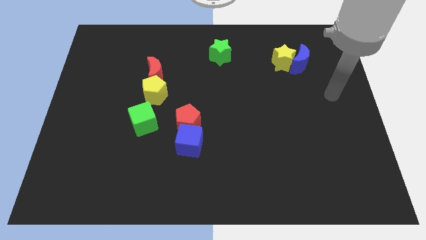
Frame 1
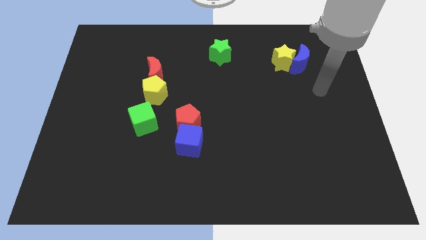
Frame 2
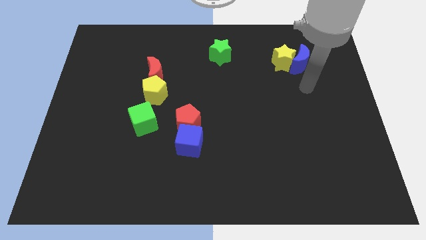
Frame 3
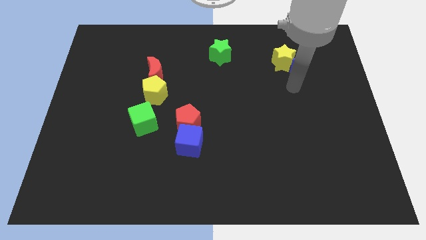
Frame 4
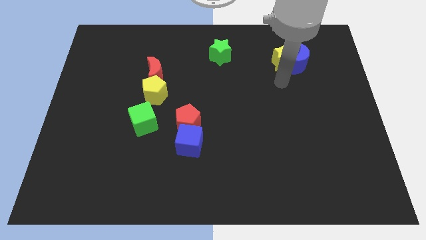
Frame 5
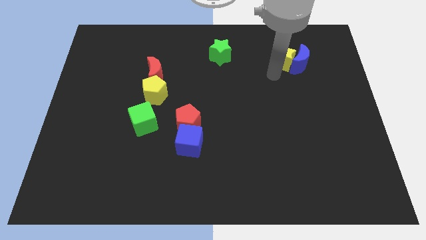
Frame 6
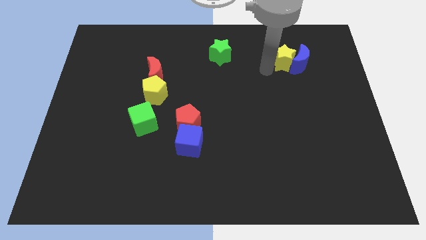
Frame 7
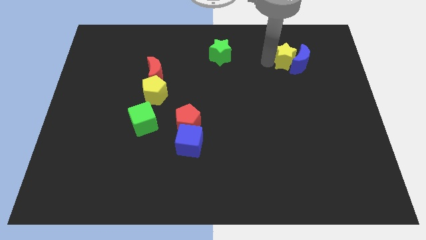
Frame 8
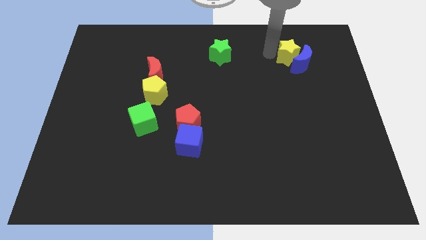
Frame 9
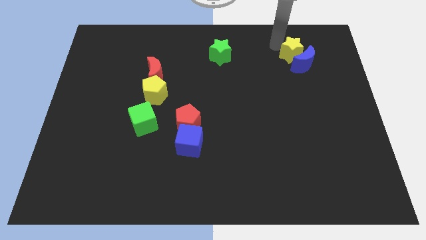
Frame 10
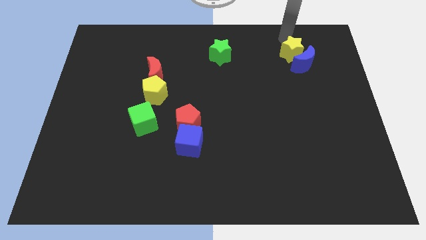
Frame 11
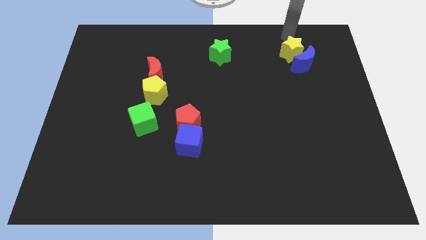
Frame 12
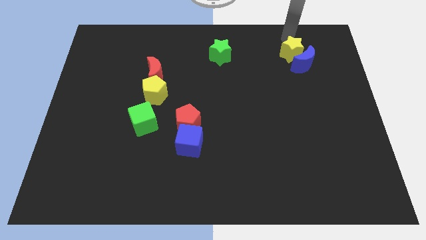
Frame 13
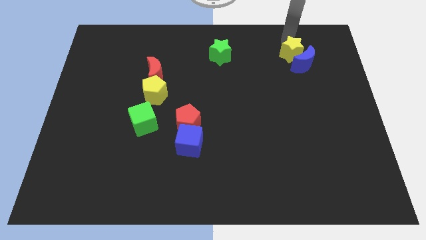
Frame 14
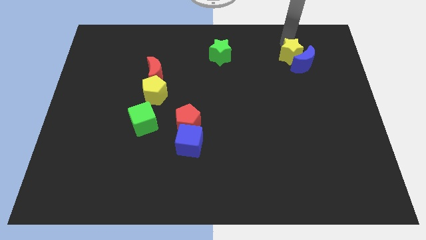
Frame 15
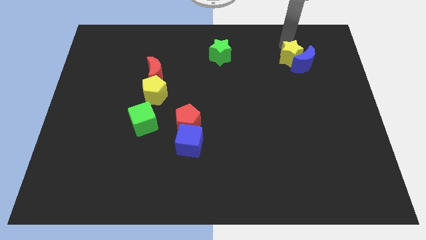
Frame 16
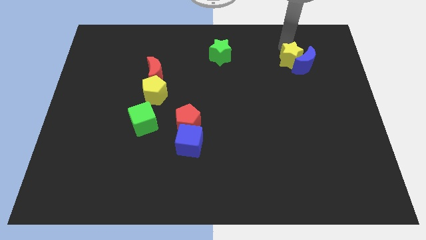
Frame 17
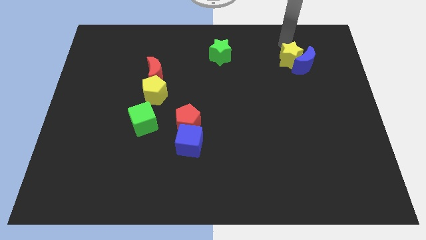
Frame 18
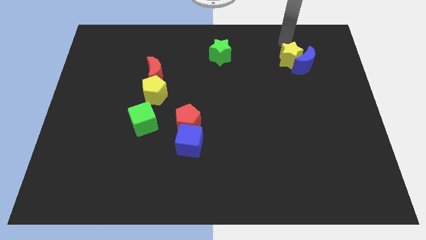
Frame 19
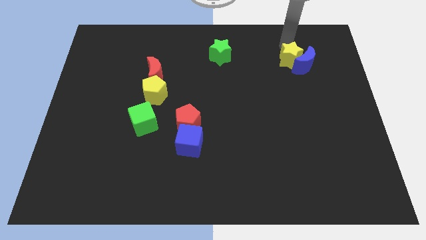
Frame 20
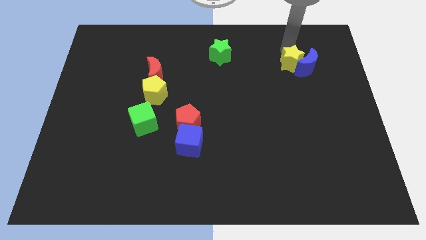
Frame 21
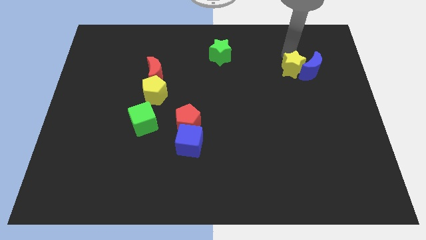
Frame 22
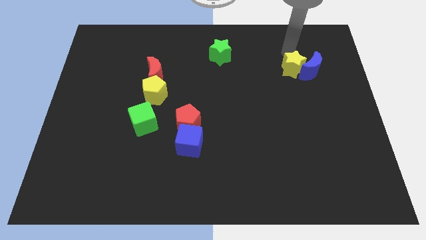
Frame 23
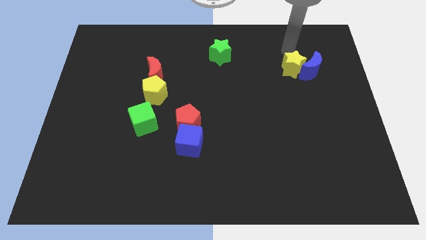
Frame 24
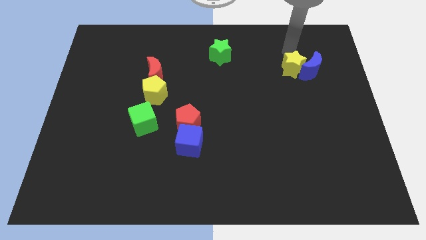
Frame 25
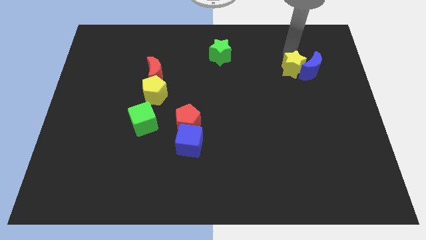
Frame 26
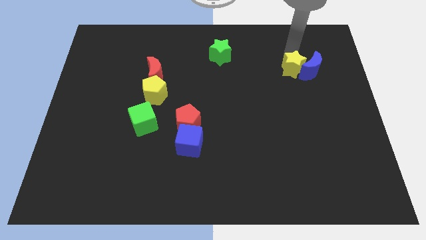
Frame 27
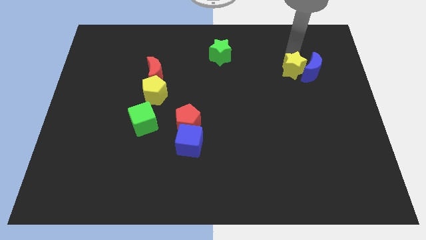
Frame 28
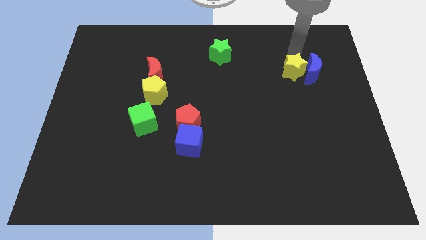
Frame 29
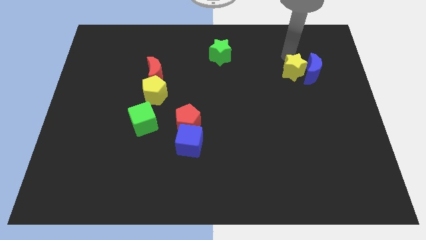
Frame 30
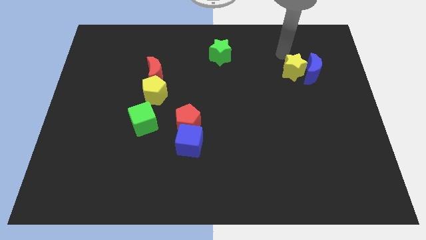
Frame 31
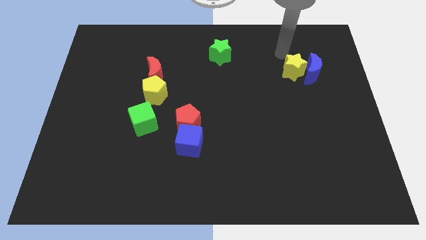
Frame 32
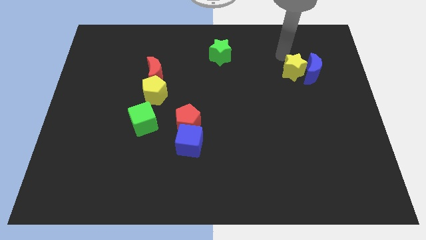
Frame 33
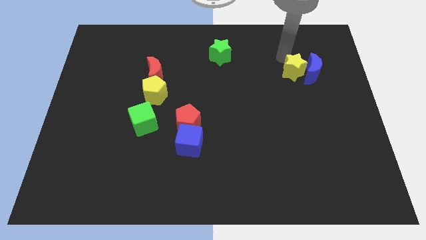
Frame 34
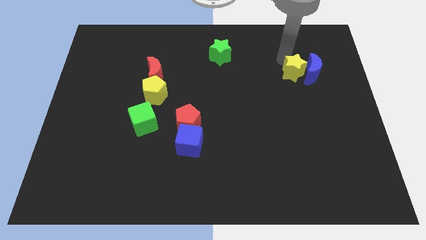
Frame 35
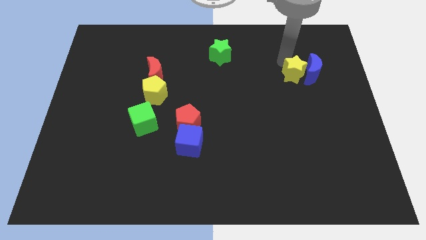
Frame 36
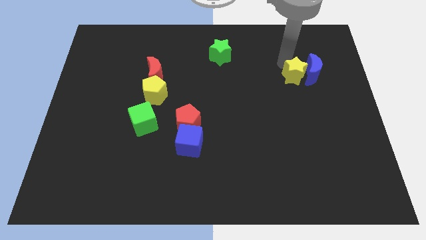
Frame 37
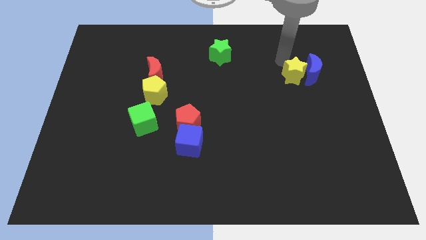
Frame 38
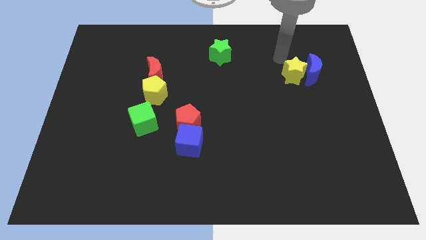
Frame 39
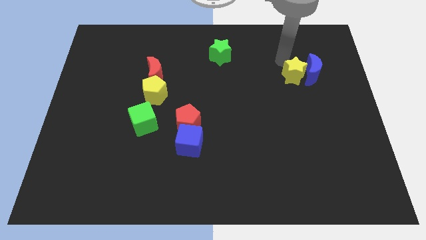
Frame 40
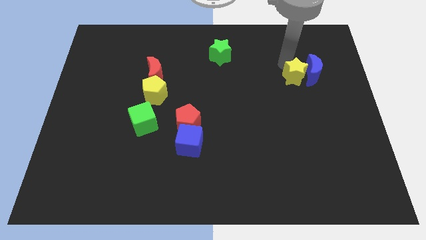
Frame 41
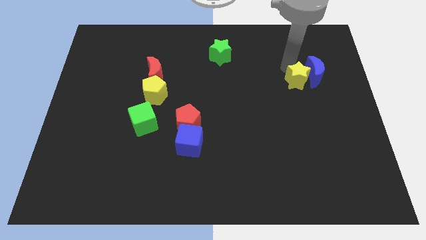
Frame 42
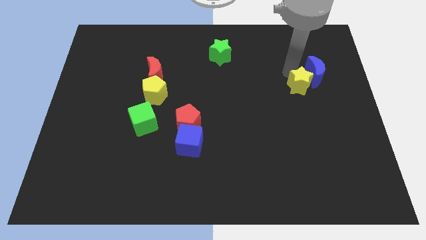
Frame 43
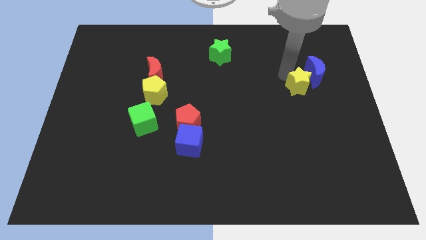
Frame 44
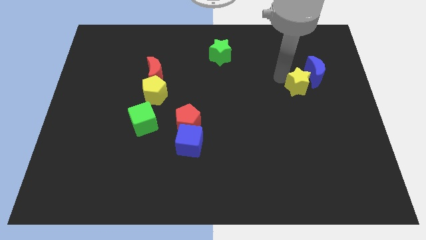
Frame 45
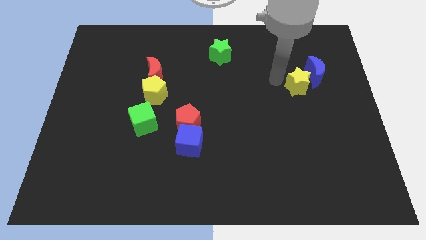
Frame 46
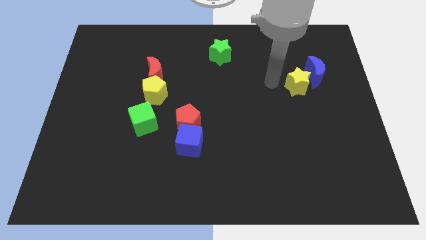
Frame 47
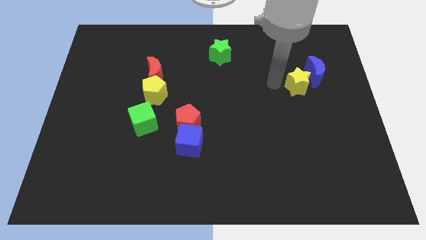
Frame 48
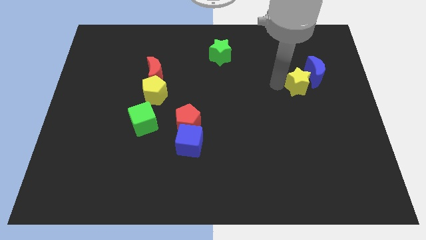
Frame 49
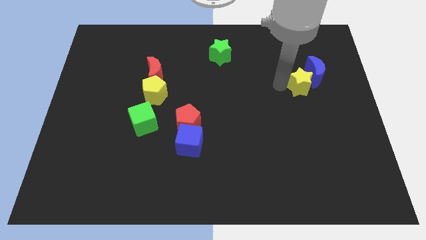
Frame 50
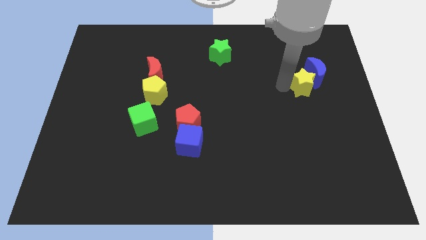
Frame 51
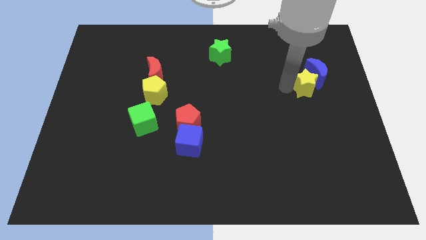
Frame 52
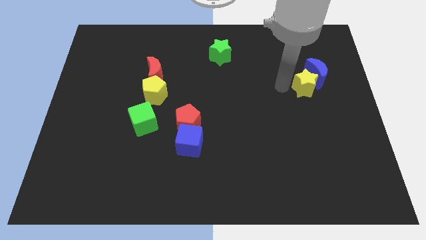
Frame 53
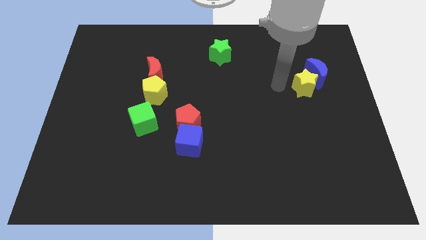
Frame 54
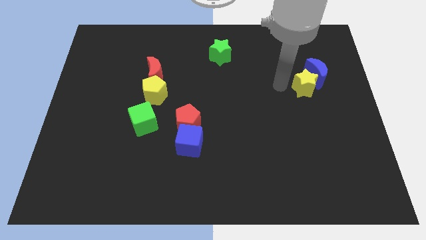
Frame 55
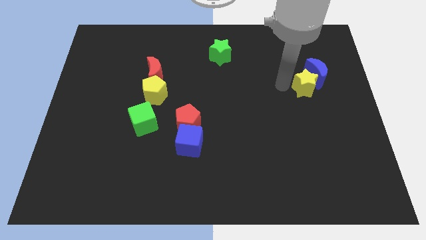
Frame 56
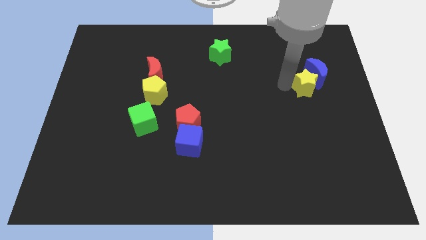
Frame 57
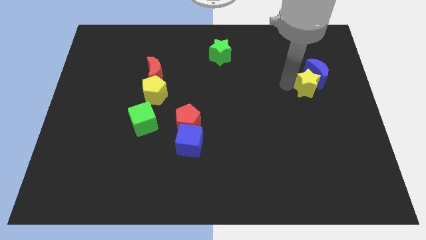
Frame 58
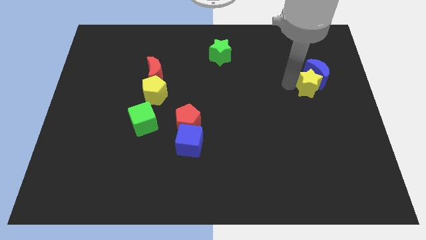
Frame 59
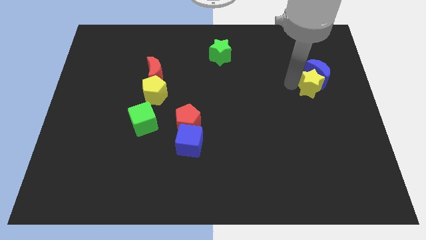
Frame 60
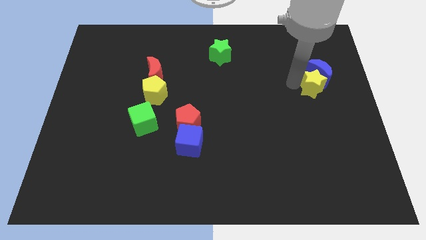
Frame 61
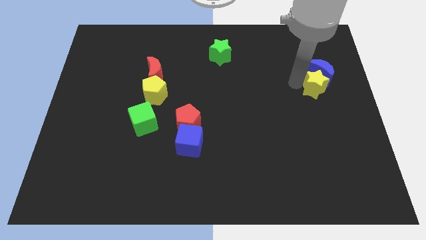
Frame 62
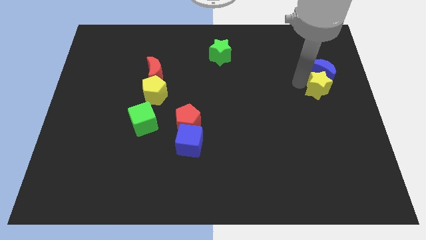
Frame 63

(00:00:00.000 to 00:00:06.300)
move the yellow star to the right side of the board

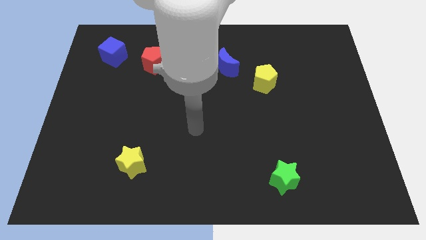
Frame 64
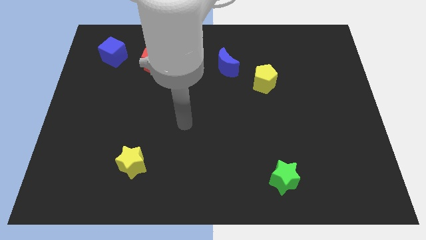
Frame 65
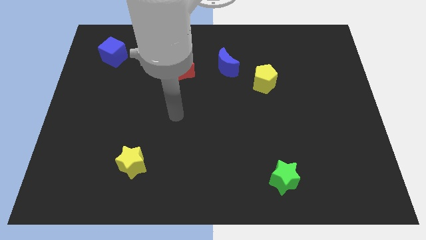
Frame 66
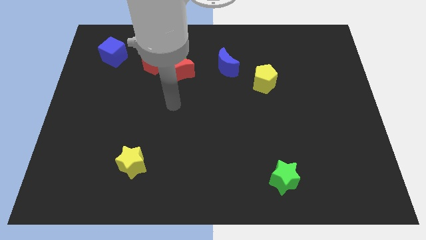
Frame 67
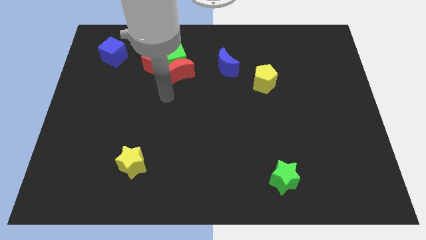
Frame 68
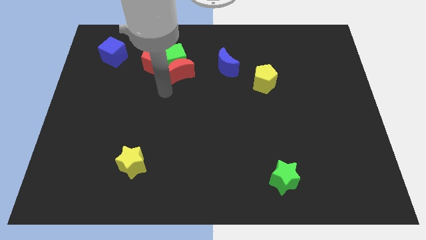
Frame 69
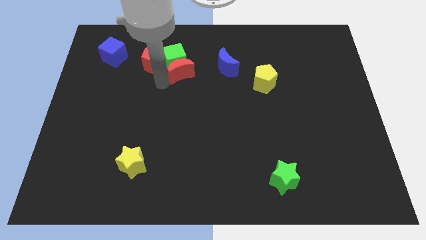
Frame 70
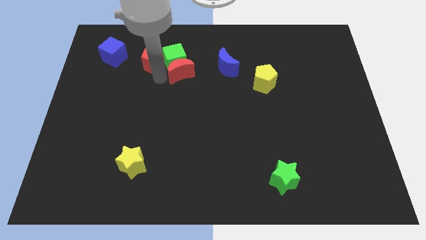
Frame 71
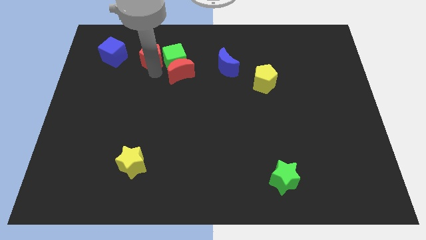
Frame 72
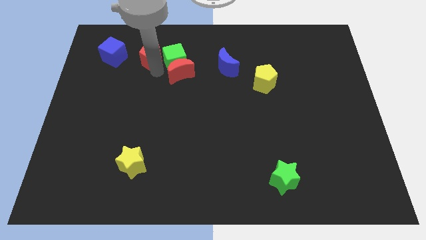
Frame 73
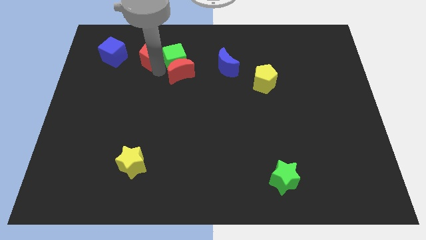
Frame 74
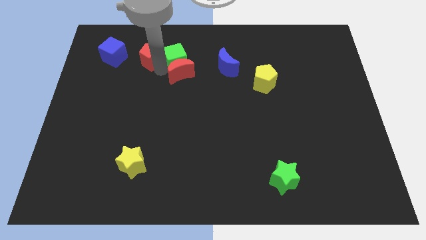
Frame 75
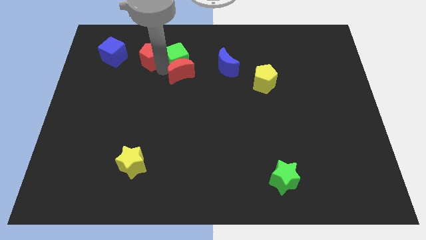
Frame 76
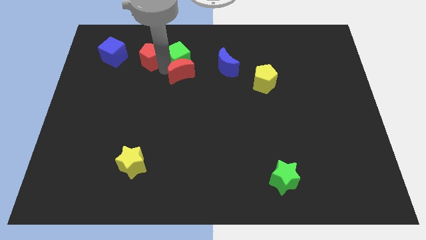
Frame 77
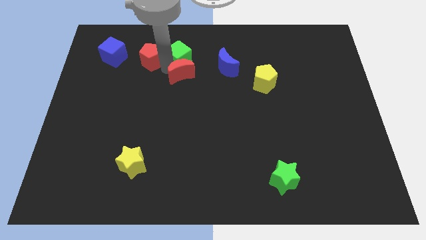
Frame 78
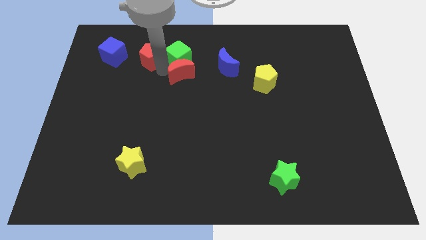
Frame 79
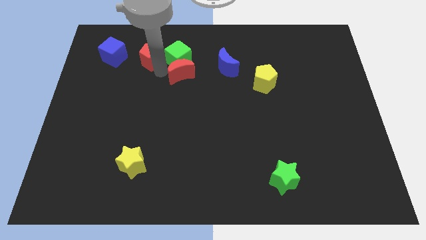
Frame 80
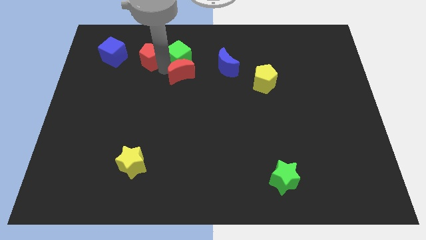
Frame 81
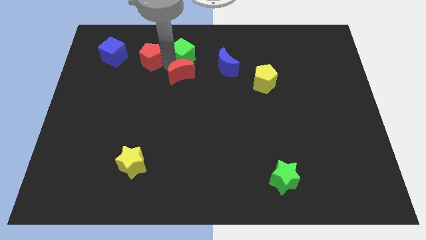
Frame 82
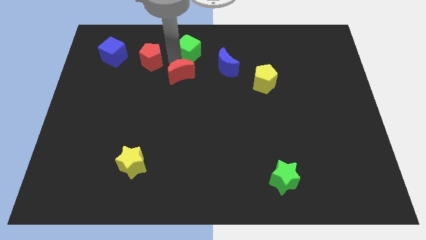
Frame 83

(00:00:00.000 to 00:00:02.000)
push the green cube to the top side
